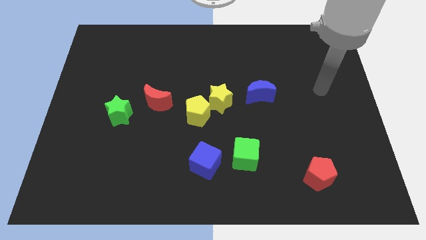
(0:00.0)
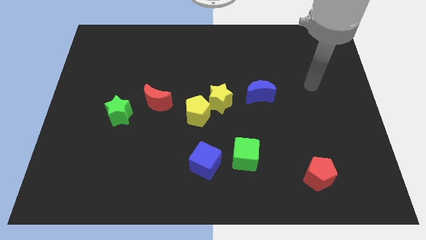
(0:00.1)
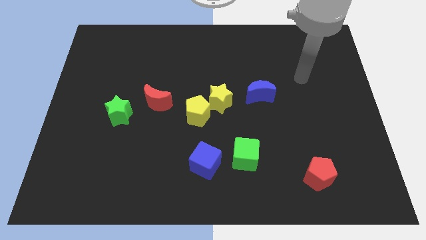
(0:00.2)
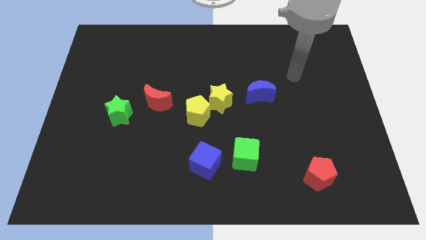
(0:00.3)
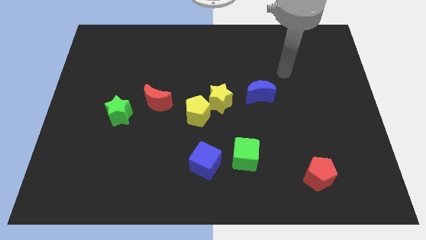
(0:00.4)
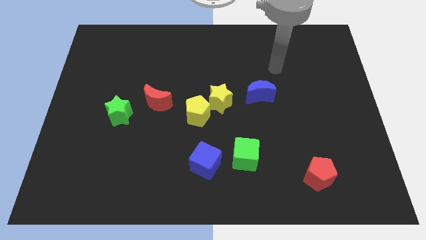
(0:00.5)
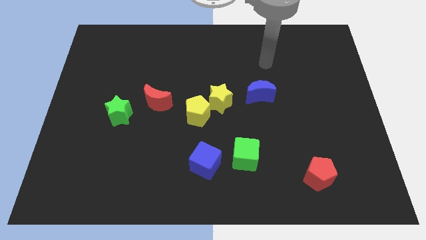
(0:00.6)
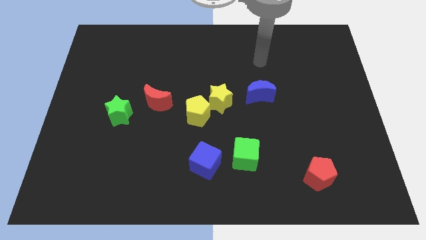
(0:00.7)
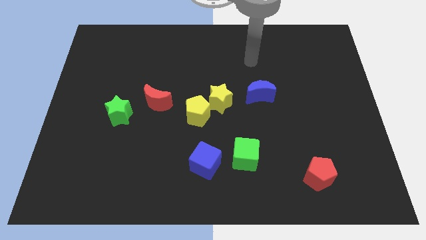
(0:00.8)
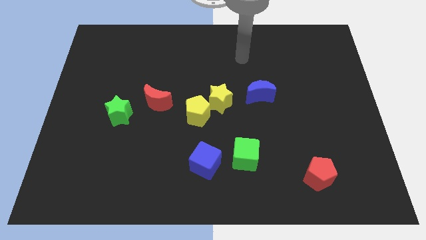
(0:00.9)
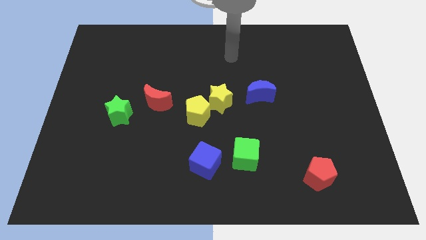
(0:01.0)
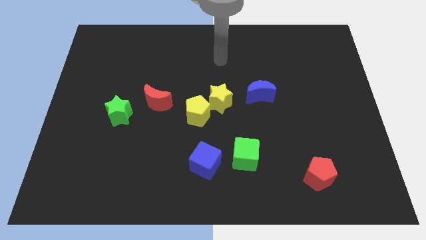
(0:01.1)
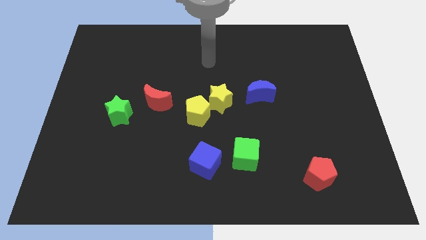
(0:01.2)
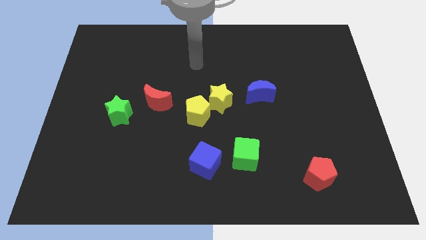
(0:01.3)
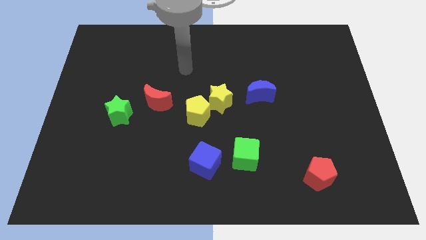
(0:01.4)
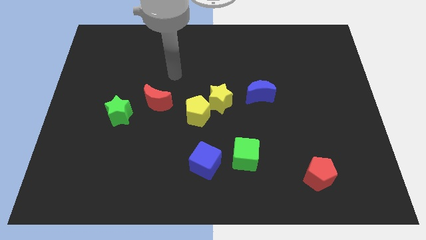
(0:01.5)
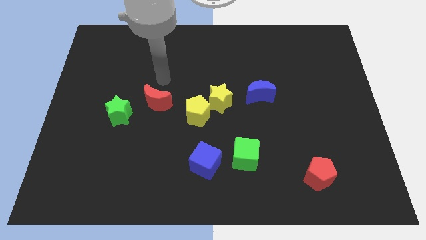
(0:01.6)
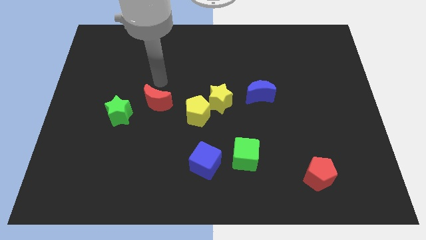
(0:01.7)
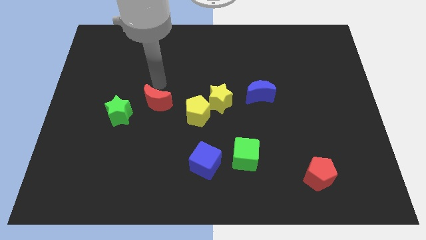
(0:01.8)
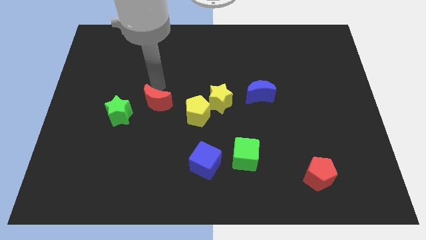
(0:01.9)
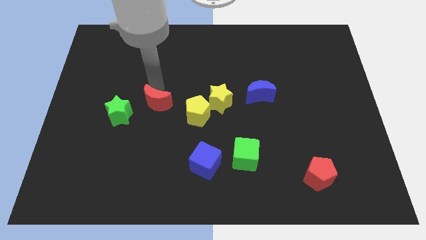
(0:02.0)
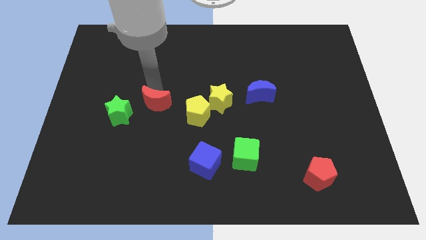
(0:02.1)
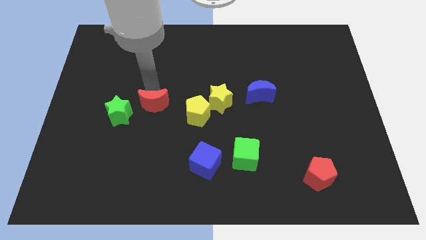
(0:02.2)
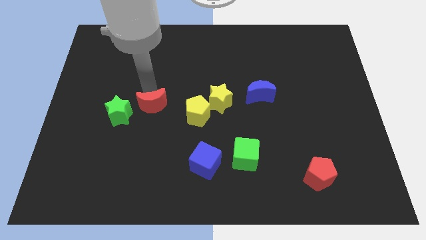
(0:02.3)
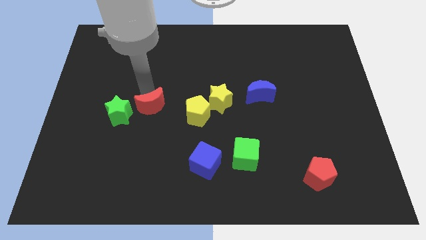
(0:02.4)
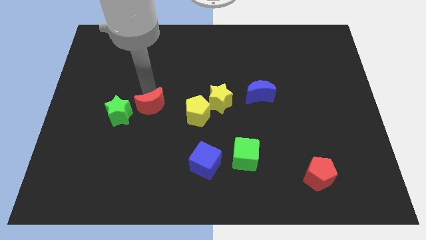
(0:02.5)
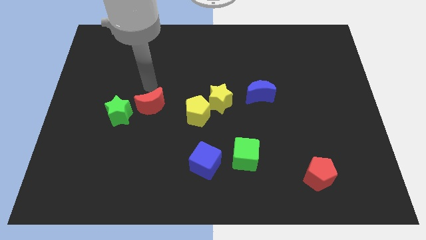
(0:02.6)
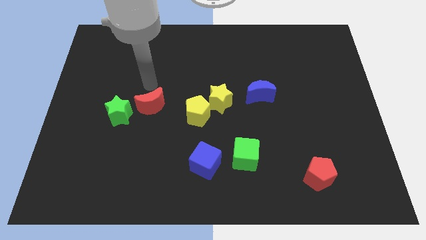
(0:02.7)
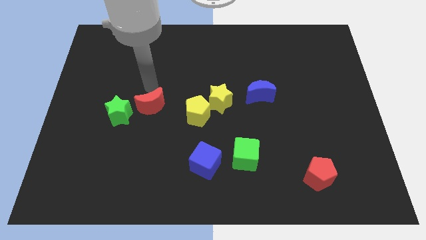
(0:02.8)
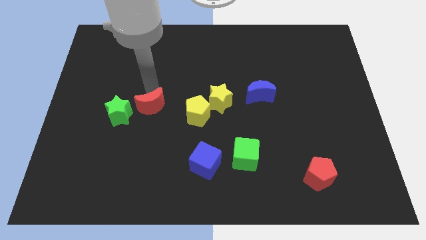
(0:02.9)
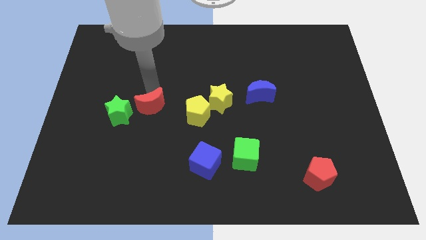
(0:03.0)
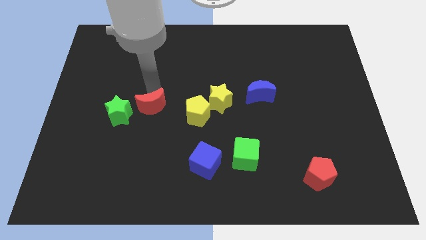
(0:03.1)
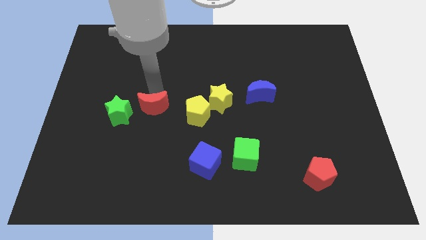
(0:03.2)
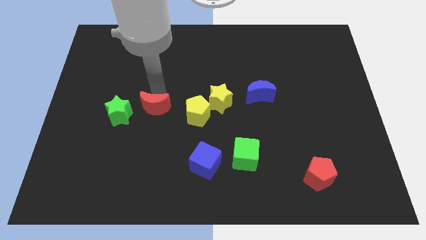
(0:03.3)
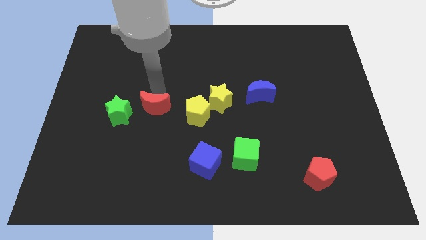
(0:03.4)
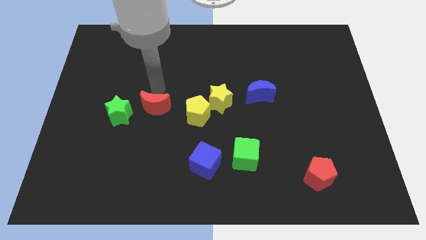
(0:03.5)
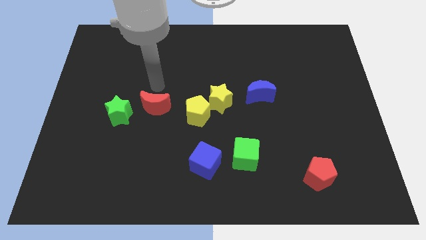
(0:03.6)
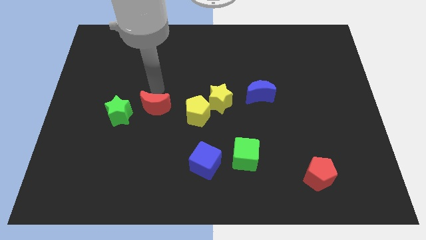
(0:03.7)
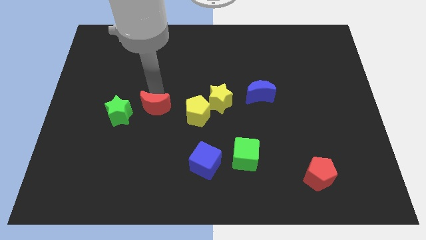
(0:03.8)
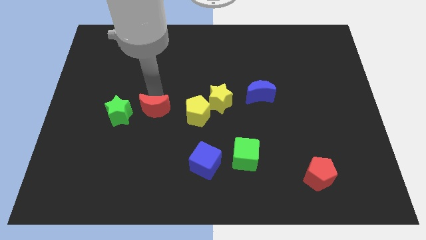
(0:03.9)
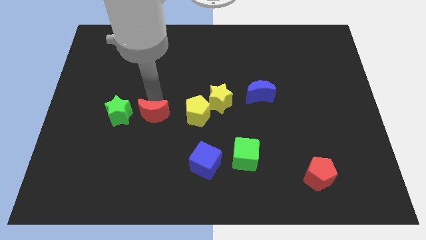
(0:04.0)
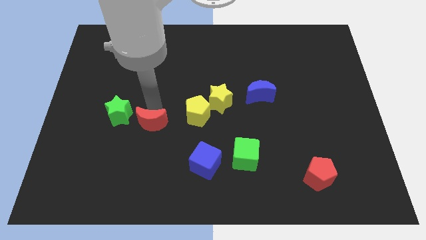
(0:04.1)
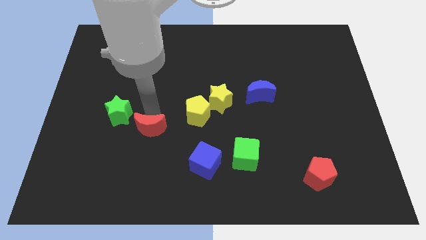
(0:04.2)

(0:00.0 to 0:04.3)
push the red moon down somewhat

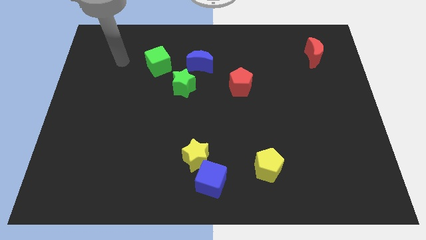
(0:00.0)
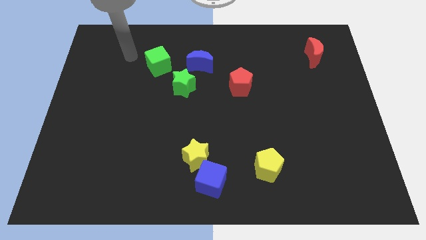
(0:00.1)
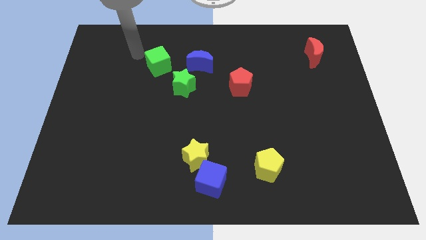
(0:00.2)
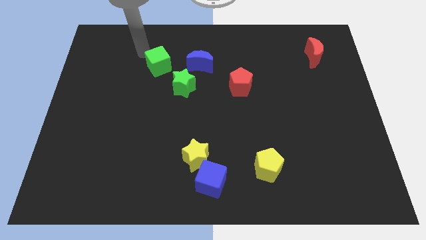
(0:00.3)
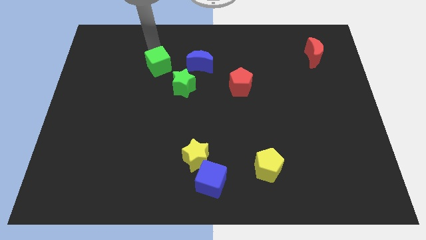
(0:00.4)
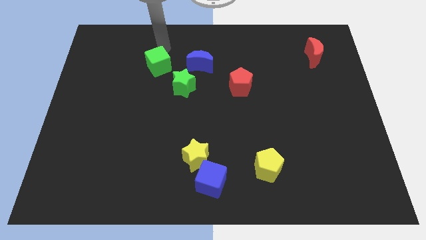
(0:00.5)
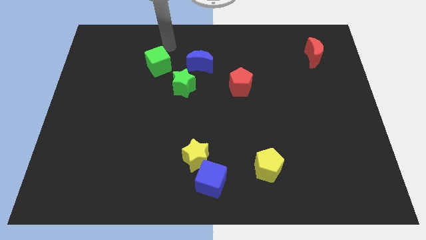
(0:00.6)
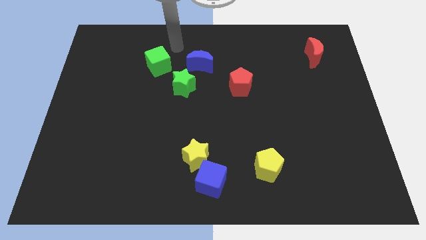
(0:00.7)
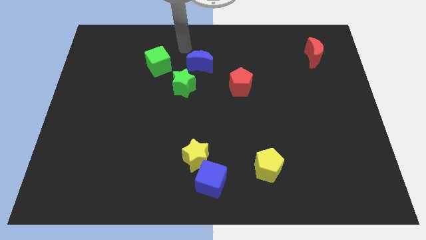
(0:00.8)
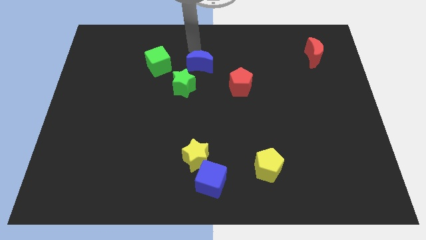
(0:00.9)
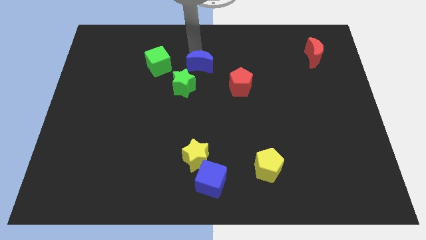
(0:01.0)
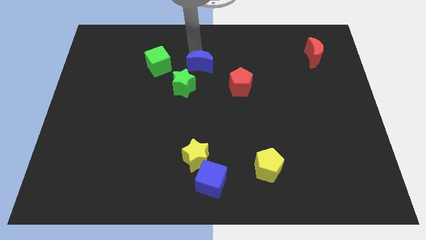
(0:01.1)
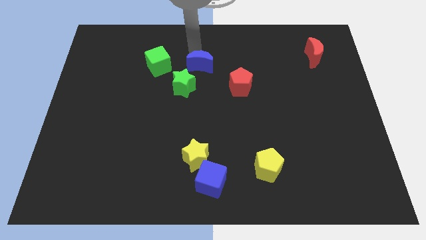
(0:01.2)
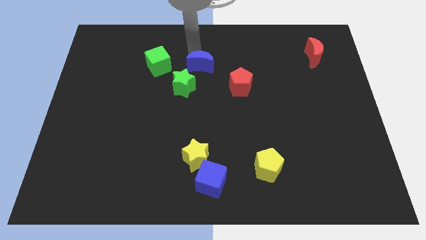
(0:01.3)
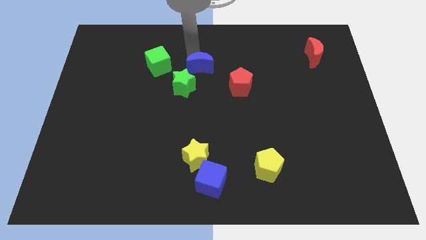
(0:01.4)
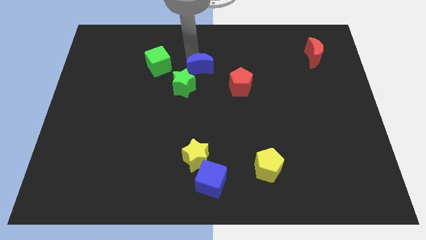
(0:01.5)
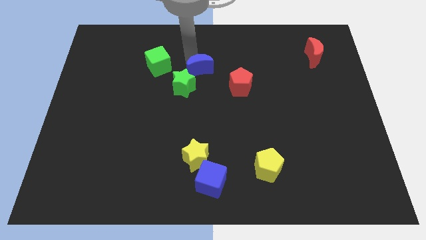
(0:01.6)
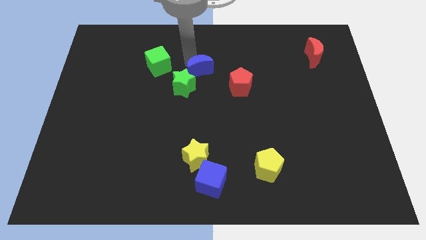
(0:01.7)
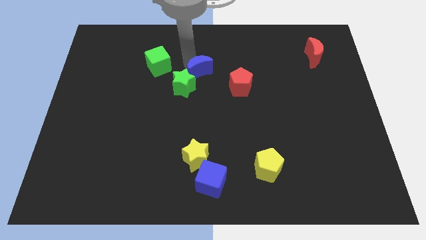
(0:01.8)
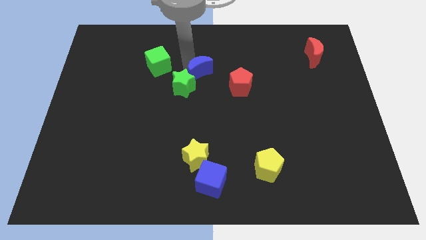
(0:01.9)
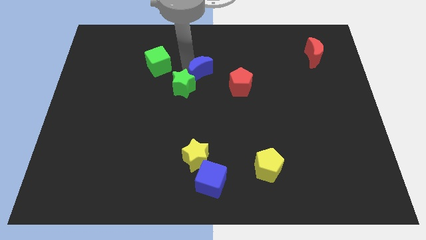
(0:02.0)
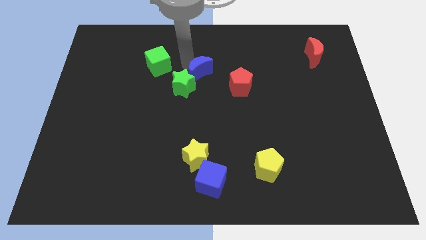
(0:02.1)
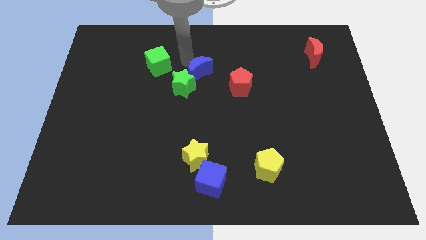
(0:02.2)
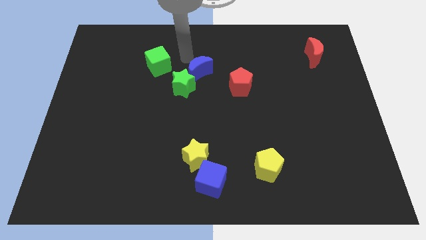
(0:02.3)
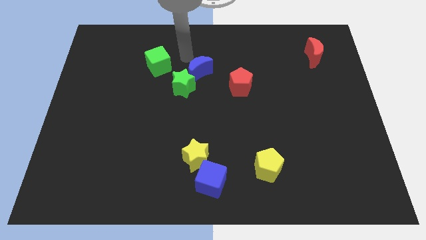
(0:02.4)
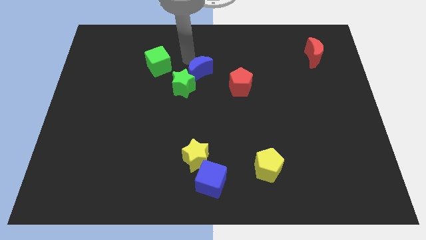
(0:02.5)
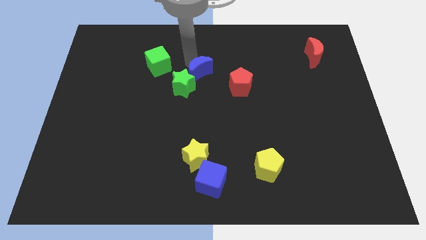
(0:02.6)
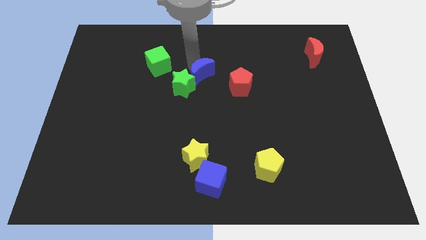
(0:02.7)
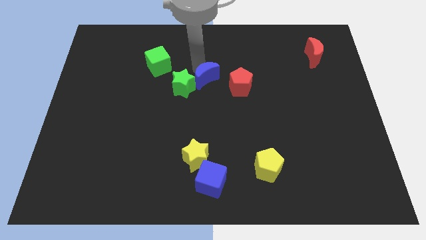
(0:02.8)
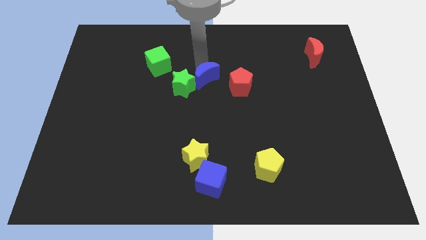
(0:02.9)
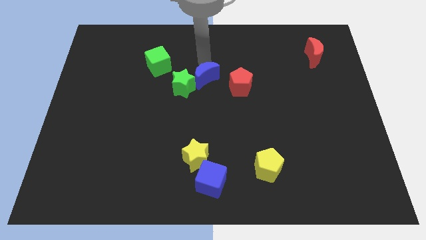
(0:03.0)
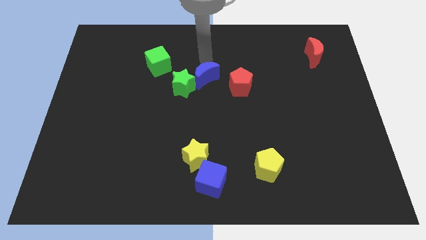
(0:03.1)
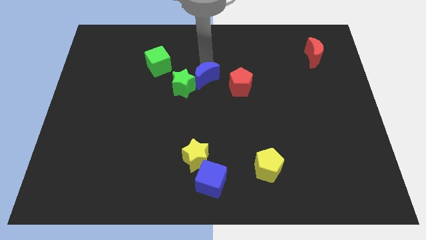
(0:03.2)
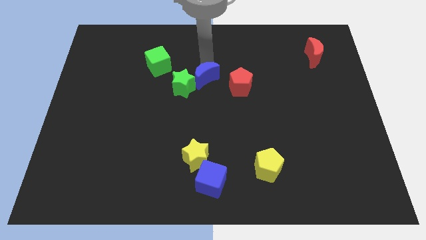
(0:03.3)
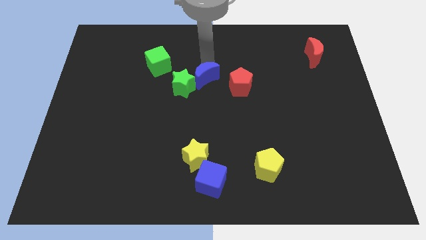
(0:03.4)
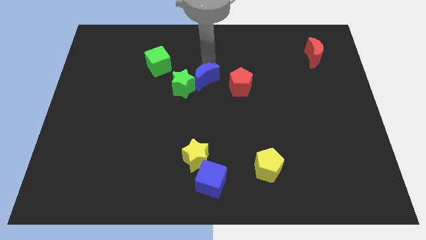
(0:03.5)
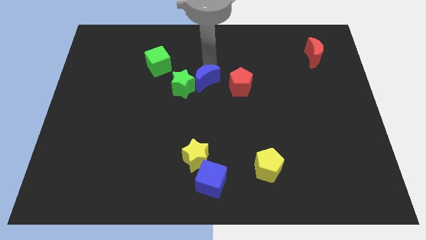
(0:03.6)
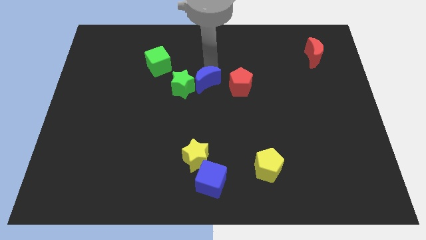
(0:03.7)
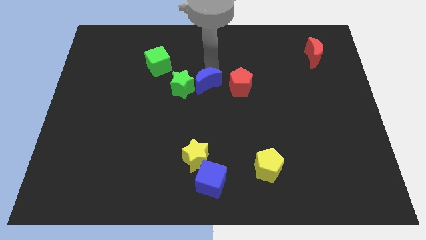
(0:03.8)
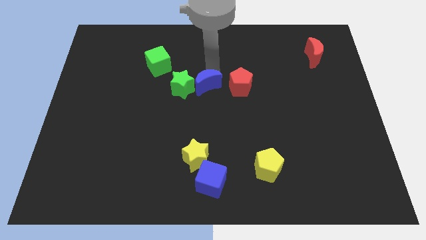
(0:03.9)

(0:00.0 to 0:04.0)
move the blue moon a little downwards
